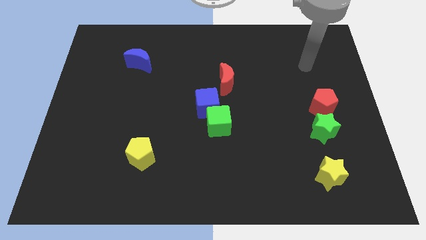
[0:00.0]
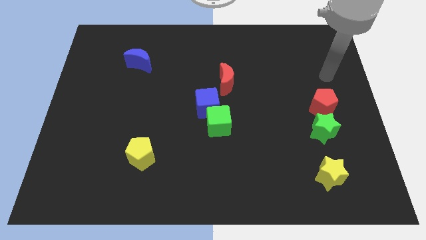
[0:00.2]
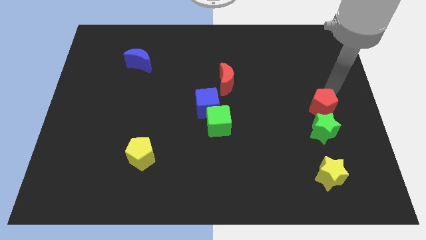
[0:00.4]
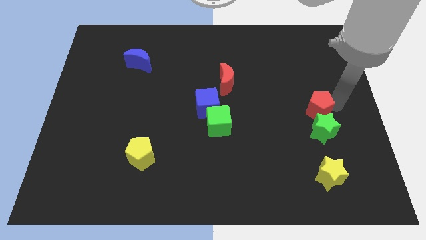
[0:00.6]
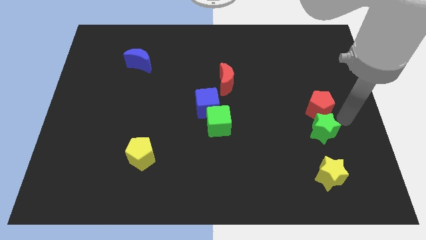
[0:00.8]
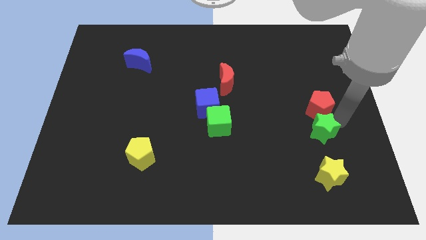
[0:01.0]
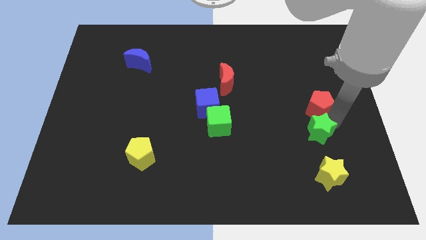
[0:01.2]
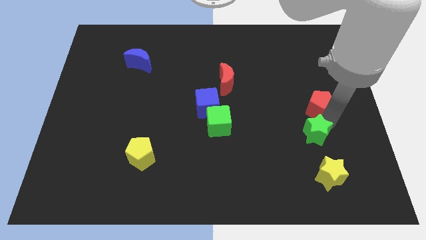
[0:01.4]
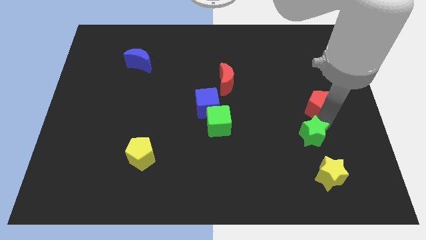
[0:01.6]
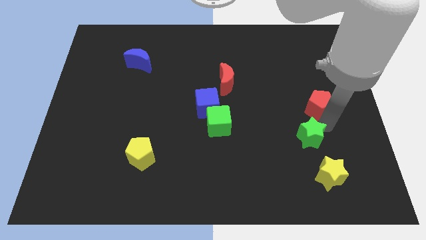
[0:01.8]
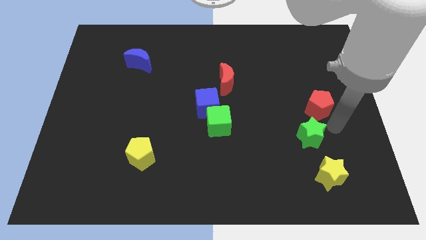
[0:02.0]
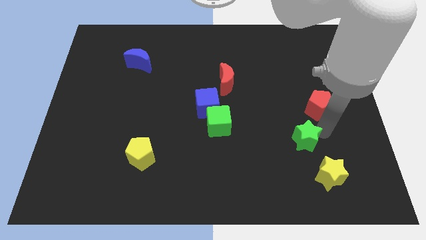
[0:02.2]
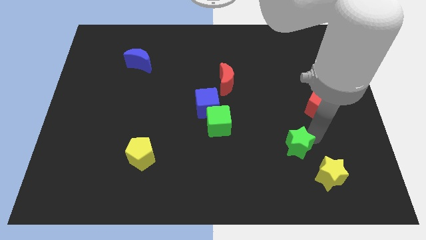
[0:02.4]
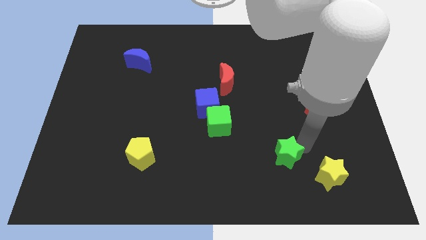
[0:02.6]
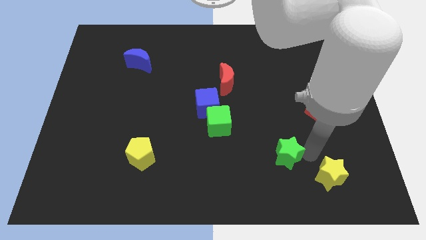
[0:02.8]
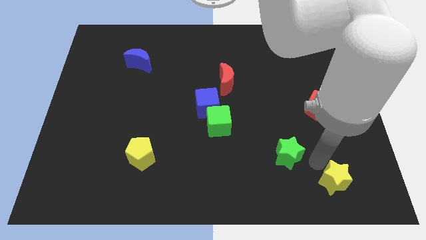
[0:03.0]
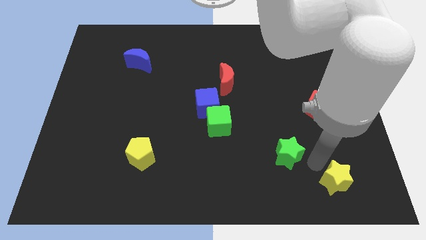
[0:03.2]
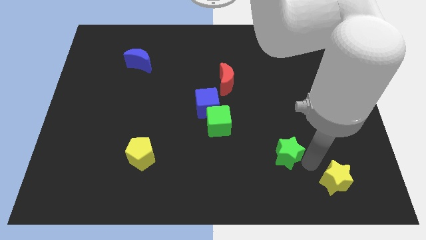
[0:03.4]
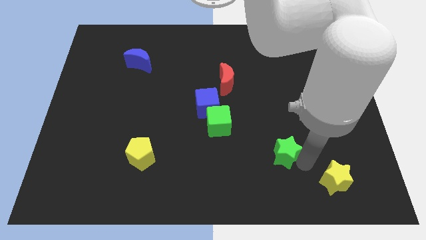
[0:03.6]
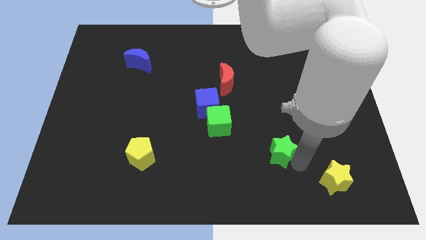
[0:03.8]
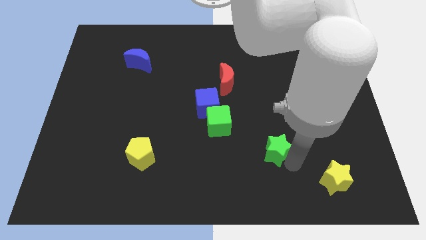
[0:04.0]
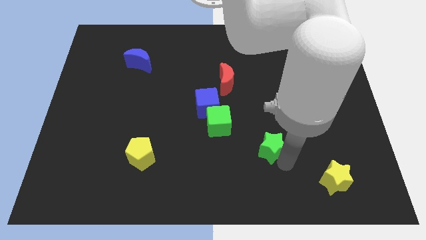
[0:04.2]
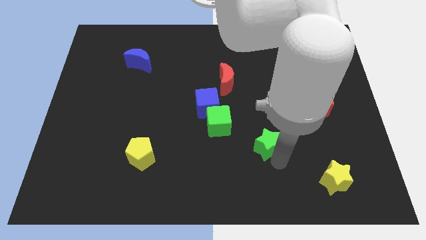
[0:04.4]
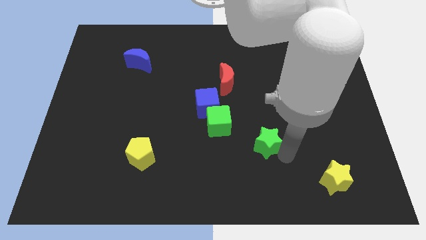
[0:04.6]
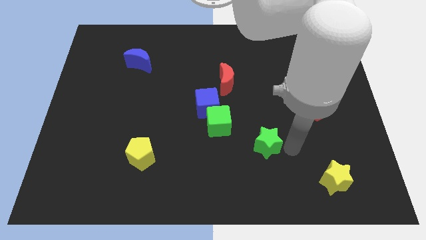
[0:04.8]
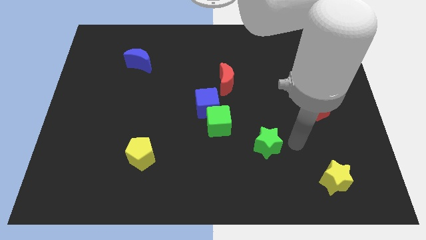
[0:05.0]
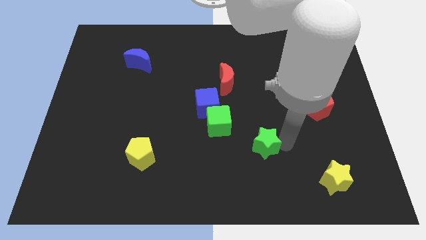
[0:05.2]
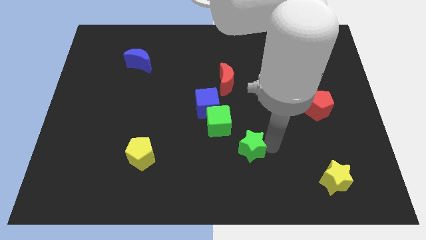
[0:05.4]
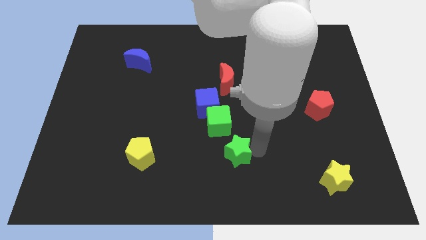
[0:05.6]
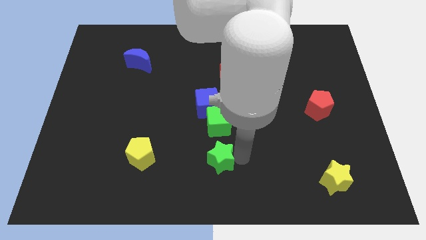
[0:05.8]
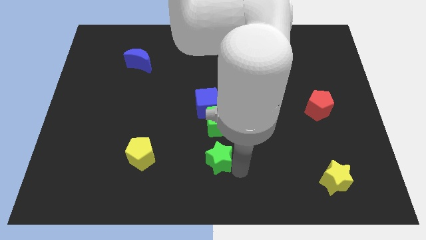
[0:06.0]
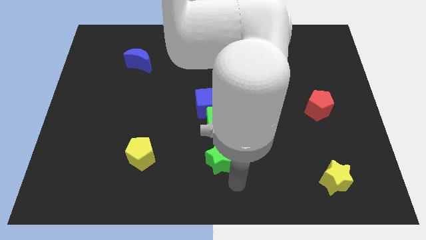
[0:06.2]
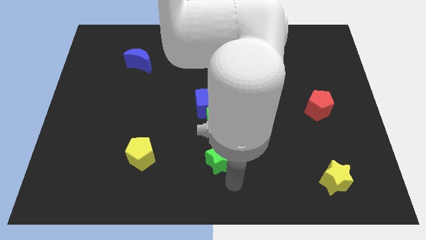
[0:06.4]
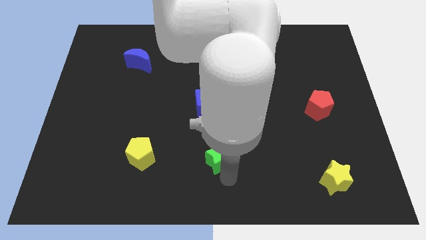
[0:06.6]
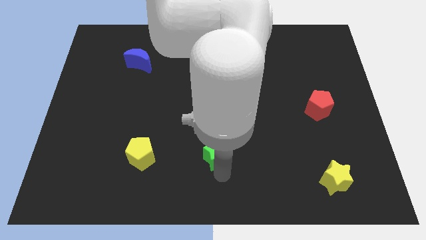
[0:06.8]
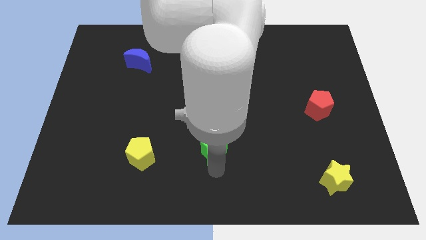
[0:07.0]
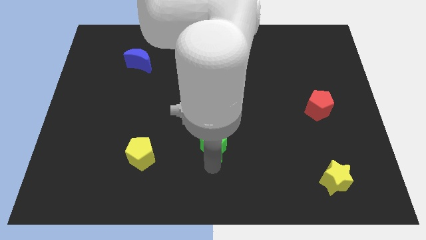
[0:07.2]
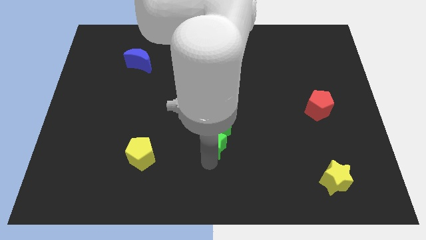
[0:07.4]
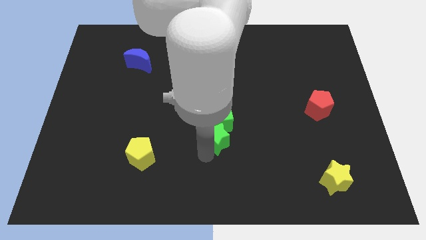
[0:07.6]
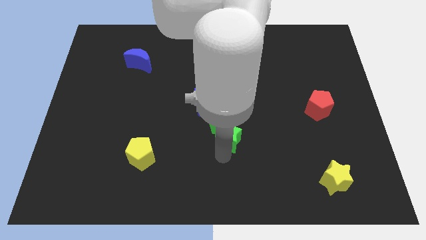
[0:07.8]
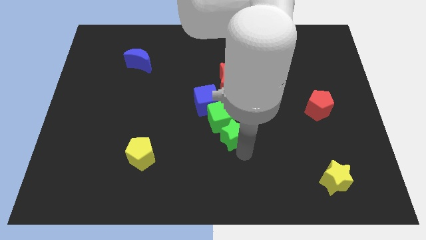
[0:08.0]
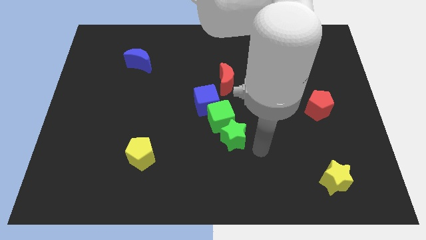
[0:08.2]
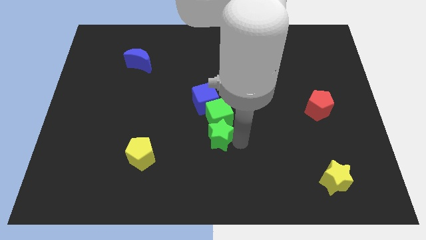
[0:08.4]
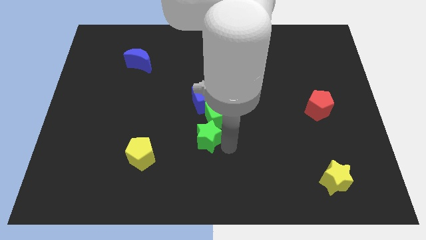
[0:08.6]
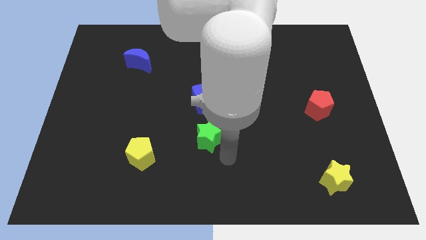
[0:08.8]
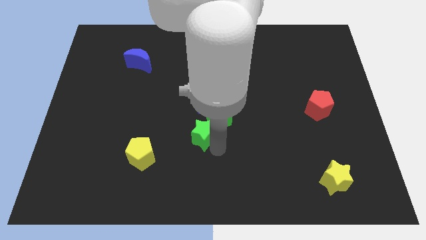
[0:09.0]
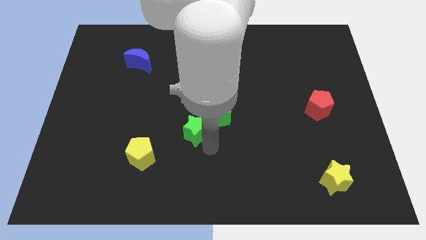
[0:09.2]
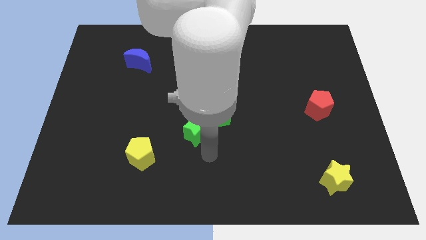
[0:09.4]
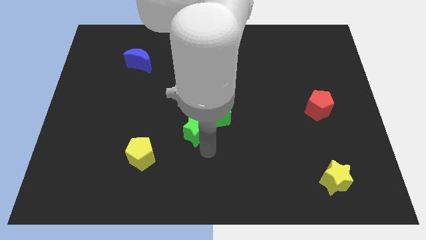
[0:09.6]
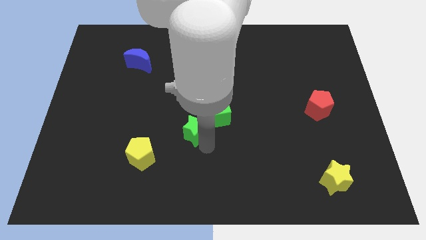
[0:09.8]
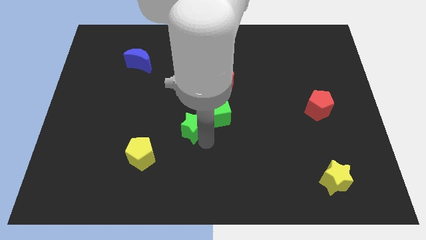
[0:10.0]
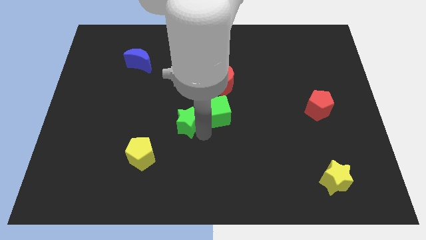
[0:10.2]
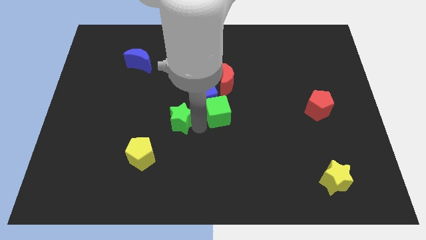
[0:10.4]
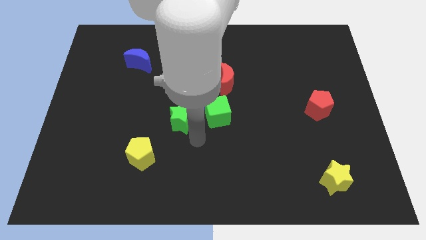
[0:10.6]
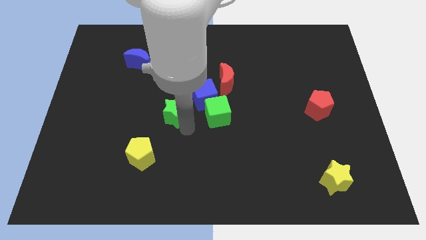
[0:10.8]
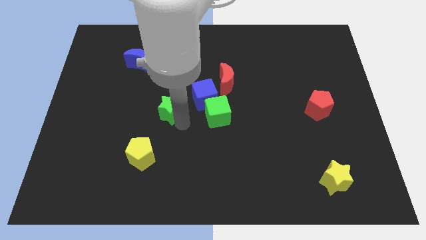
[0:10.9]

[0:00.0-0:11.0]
move the green star left of the blue cube

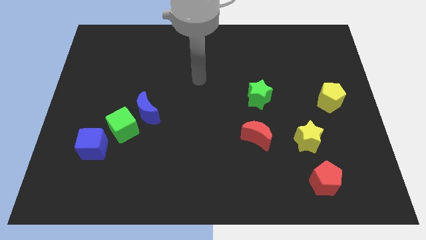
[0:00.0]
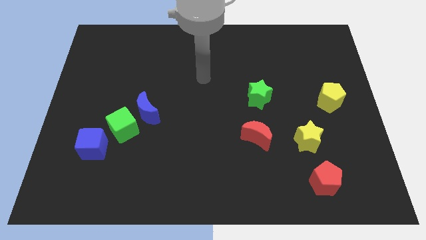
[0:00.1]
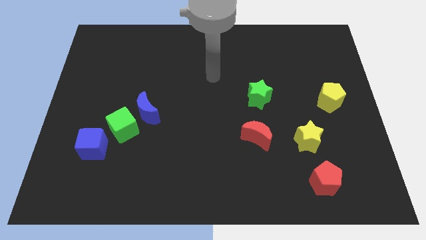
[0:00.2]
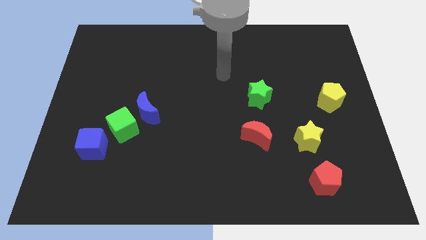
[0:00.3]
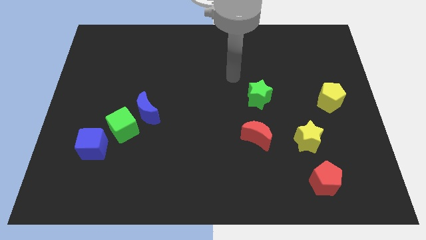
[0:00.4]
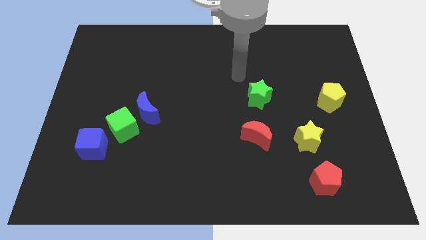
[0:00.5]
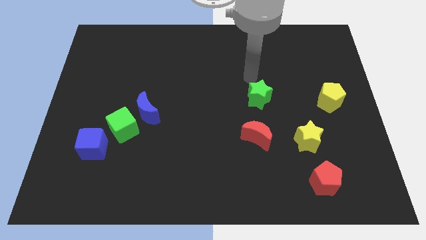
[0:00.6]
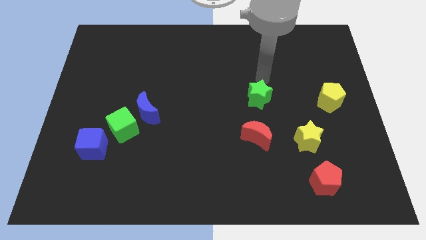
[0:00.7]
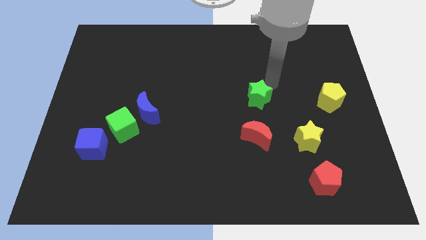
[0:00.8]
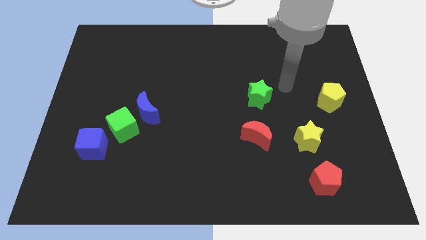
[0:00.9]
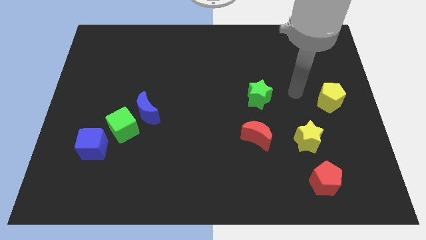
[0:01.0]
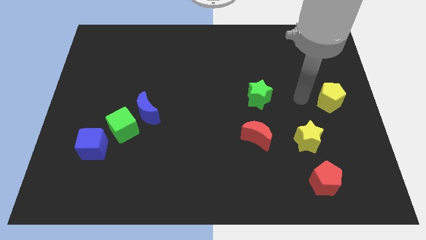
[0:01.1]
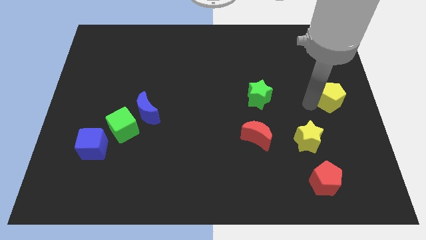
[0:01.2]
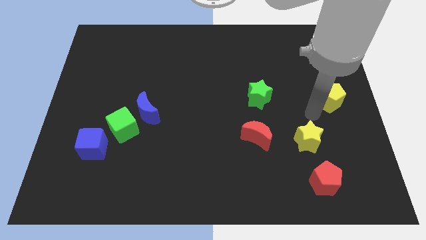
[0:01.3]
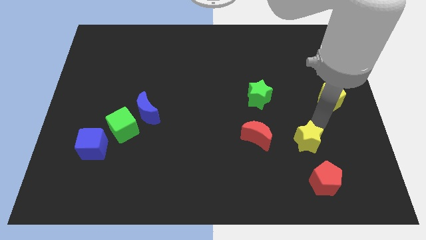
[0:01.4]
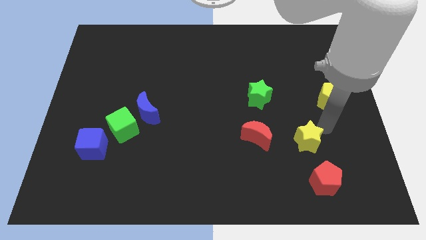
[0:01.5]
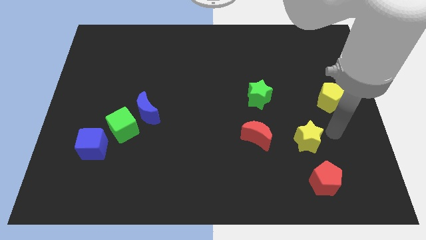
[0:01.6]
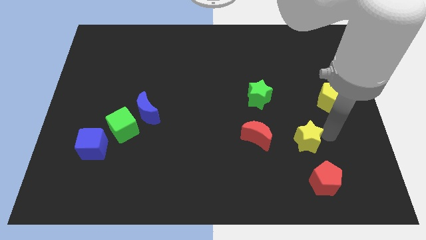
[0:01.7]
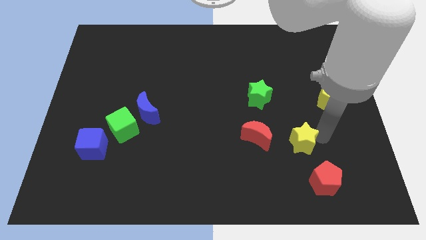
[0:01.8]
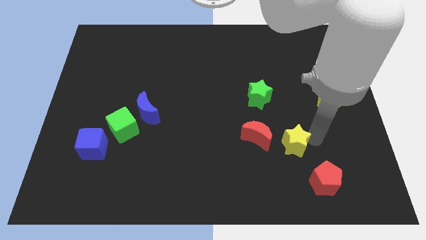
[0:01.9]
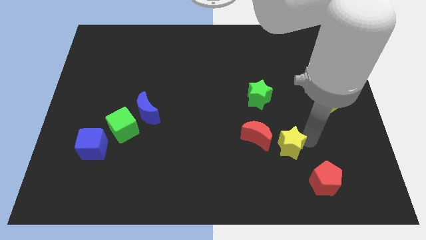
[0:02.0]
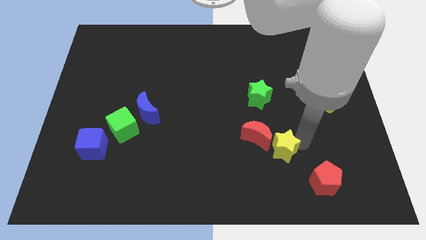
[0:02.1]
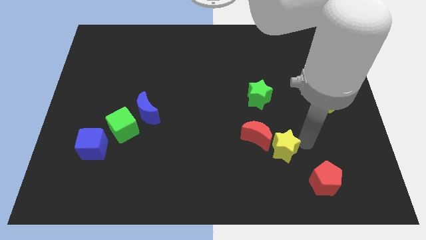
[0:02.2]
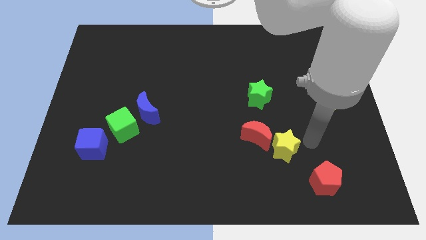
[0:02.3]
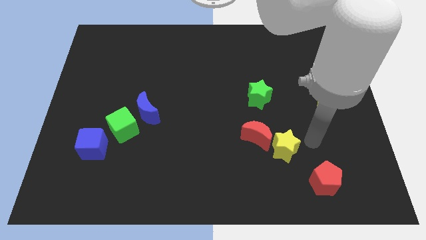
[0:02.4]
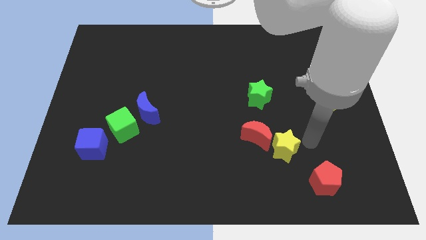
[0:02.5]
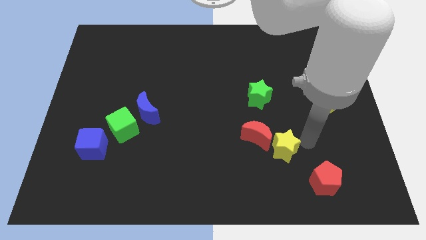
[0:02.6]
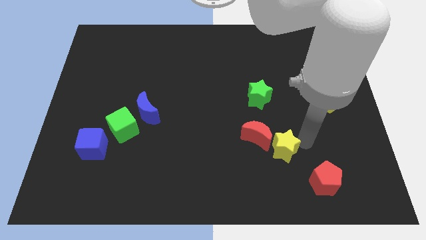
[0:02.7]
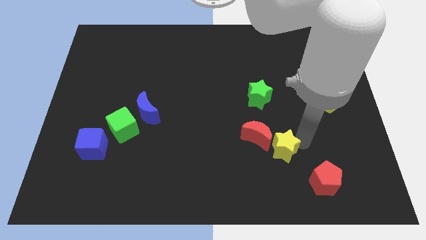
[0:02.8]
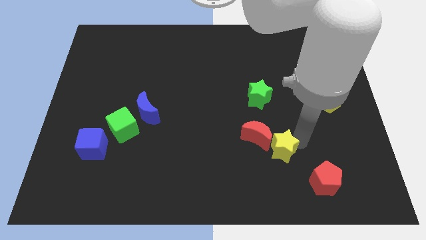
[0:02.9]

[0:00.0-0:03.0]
slide the yellow star below the green star
